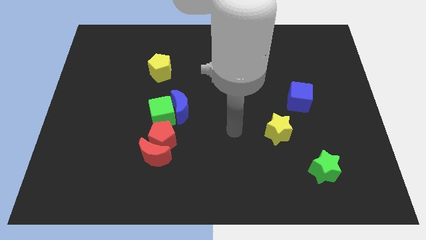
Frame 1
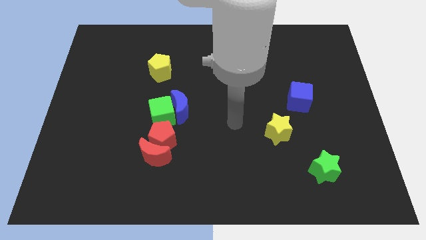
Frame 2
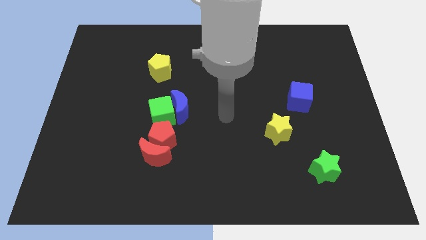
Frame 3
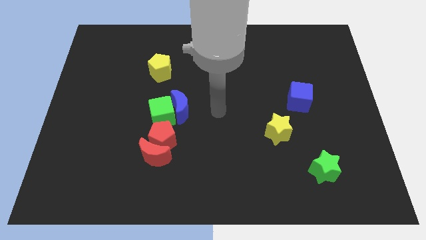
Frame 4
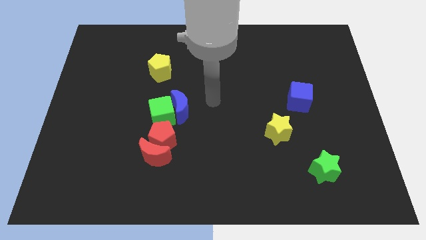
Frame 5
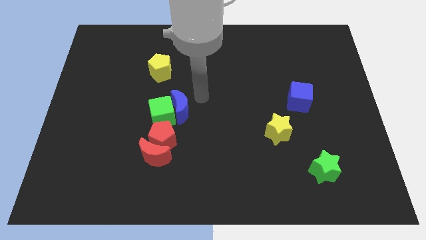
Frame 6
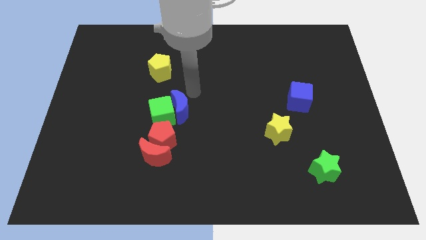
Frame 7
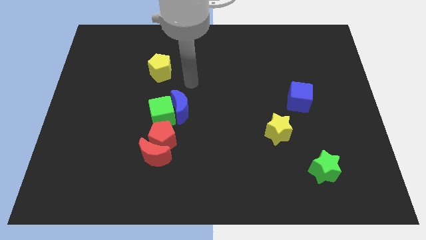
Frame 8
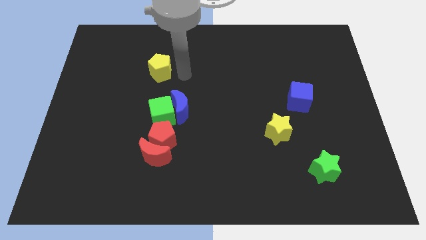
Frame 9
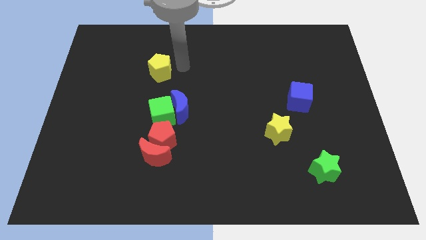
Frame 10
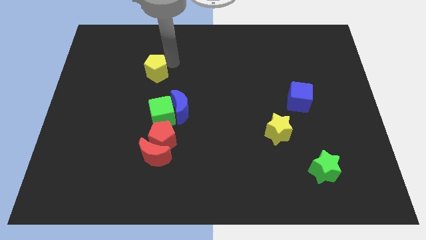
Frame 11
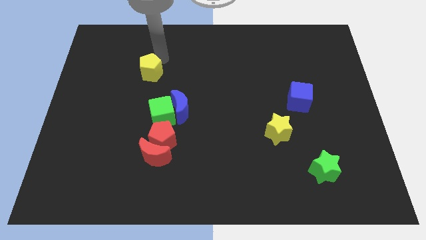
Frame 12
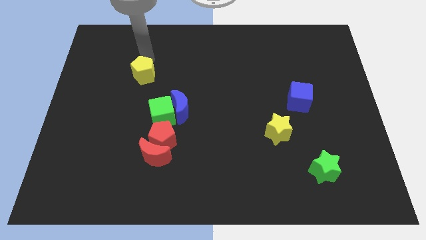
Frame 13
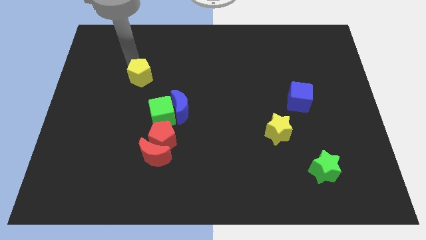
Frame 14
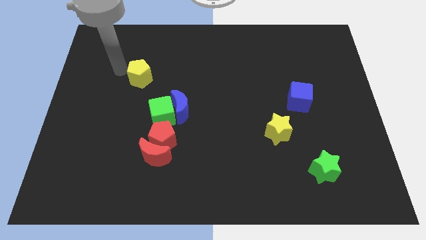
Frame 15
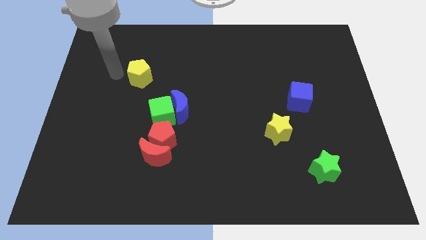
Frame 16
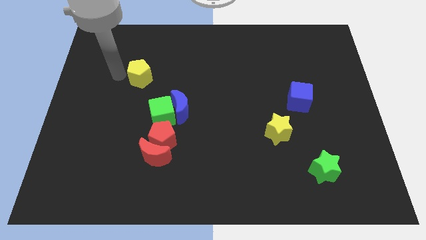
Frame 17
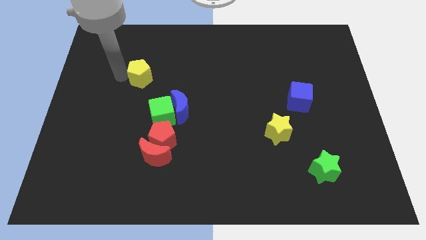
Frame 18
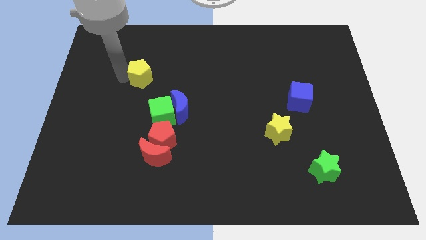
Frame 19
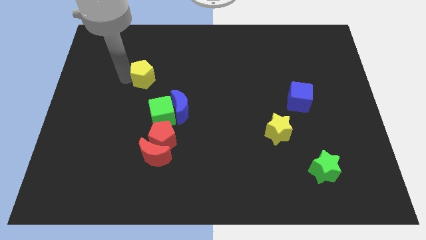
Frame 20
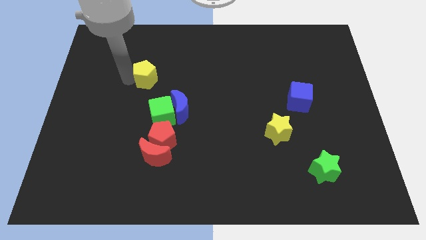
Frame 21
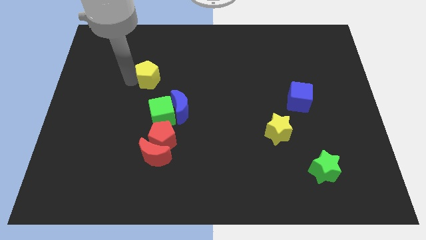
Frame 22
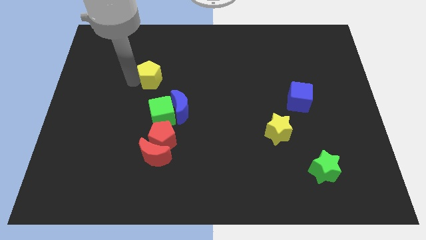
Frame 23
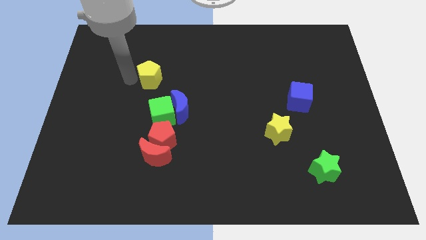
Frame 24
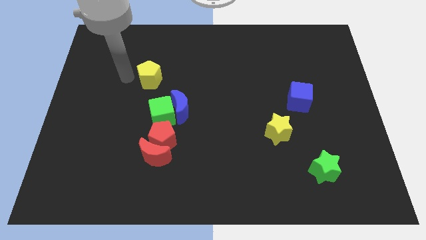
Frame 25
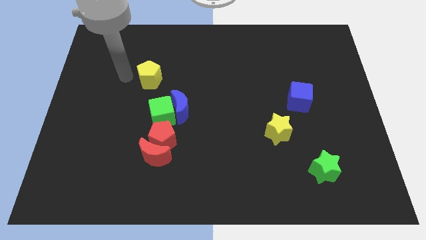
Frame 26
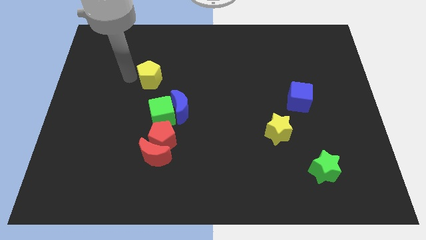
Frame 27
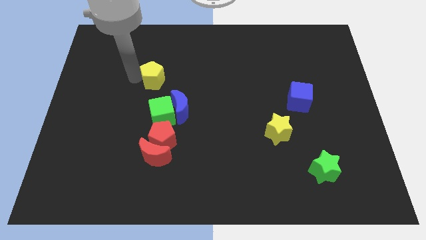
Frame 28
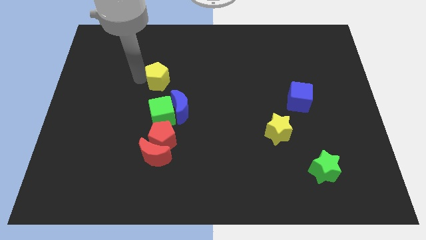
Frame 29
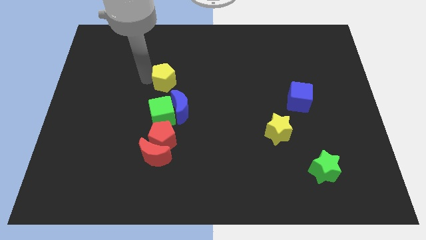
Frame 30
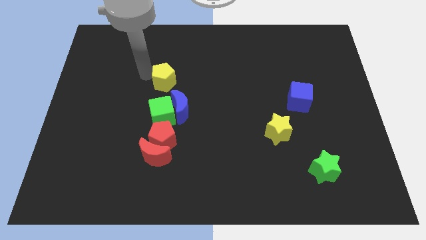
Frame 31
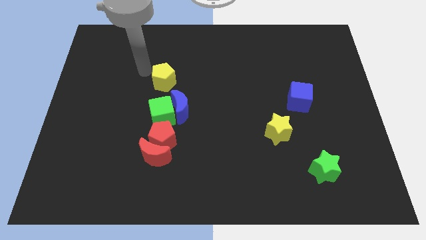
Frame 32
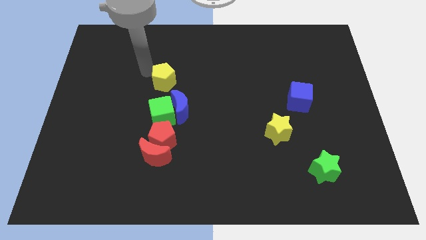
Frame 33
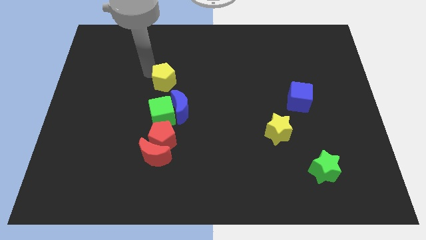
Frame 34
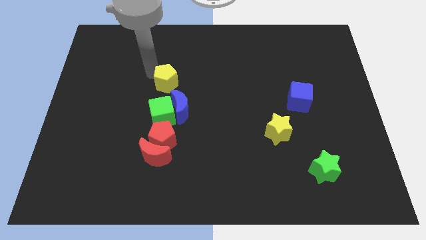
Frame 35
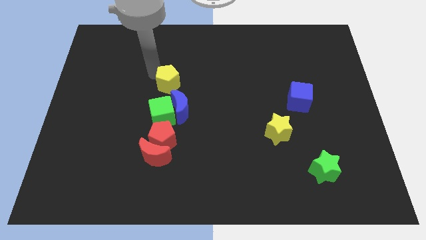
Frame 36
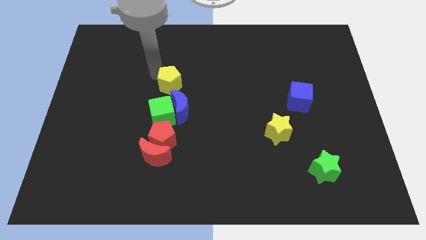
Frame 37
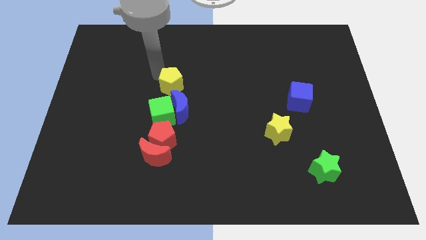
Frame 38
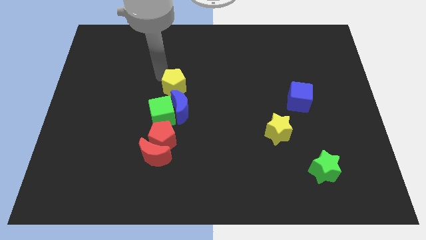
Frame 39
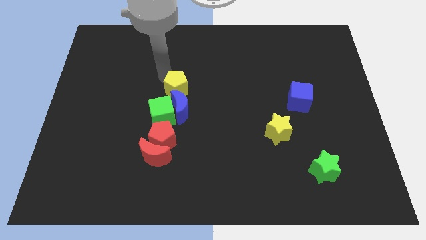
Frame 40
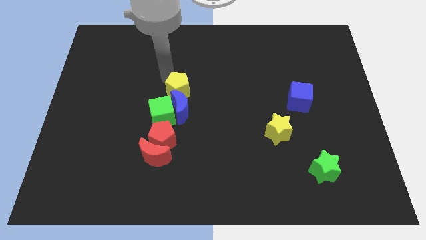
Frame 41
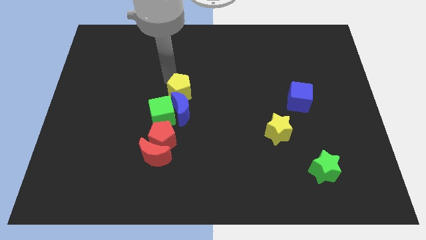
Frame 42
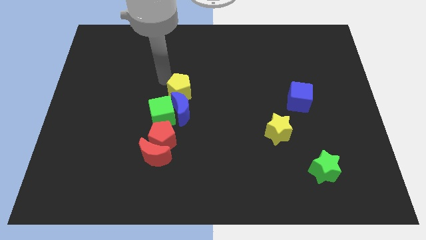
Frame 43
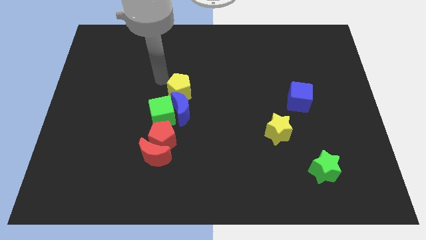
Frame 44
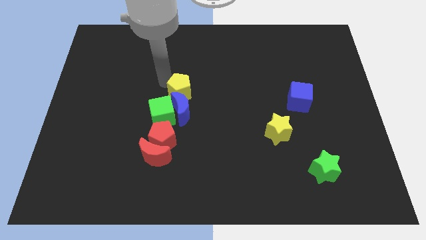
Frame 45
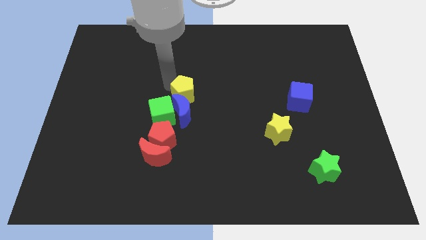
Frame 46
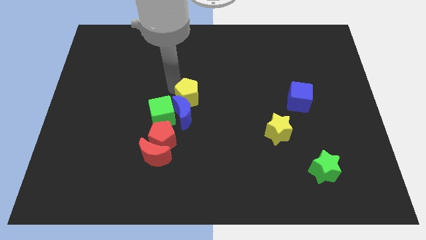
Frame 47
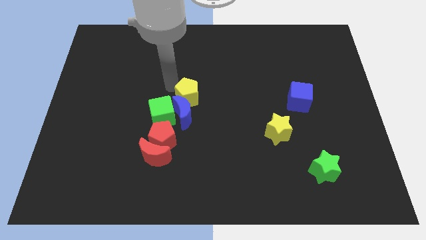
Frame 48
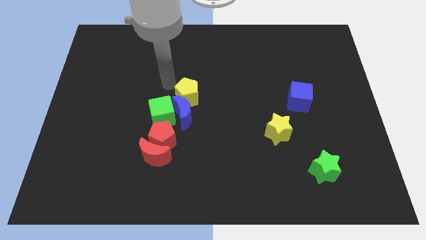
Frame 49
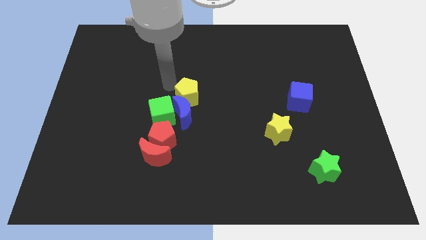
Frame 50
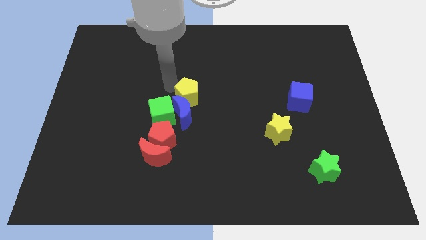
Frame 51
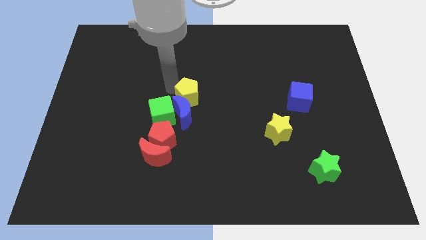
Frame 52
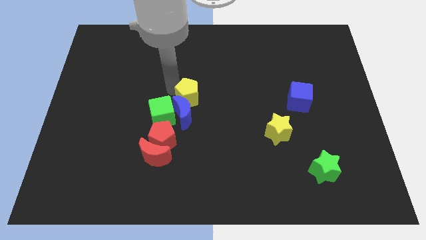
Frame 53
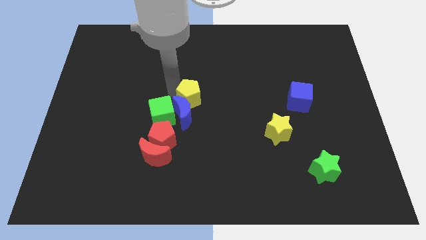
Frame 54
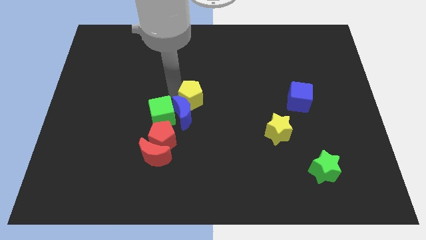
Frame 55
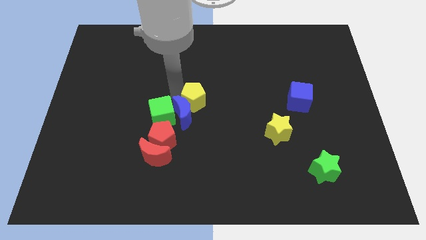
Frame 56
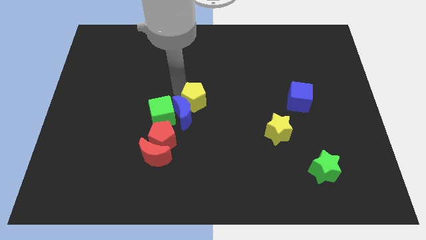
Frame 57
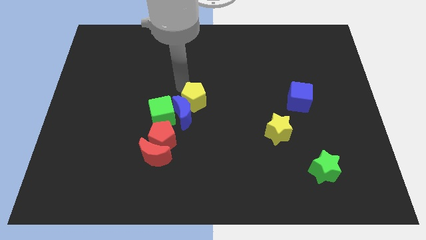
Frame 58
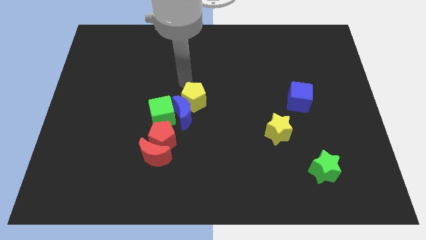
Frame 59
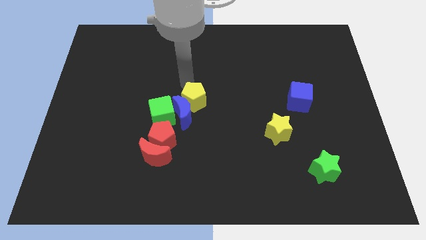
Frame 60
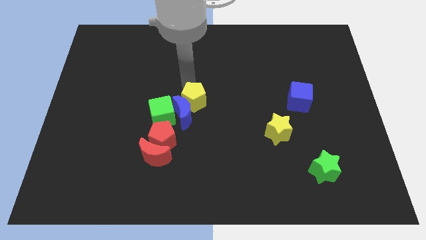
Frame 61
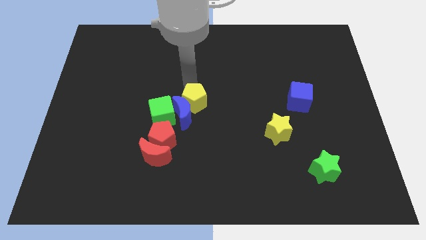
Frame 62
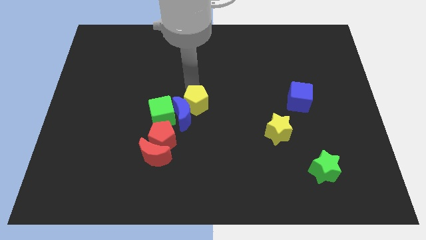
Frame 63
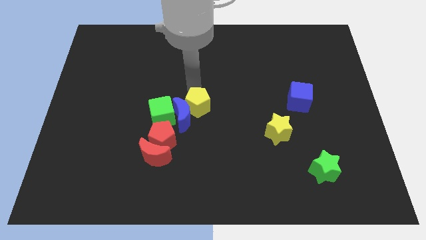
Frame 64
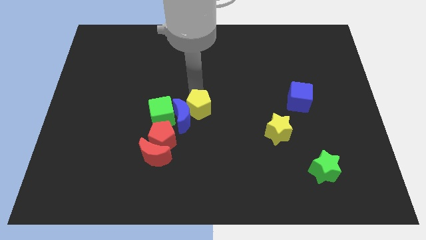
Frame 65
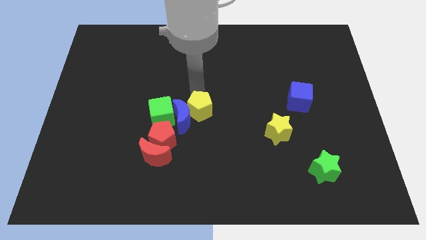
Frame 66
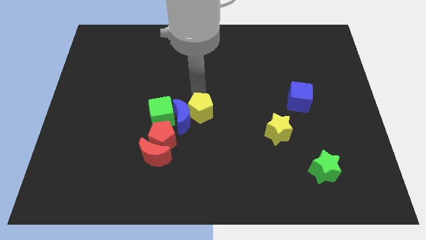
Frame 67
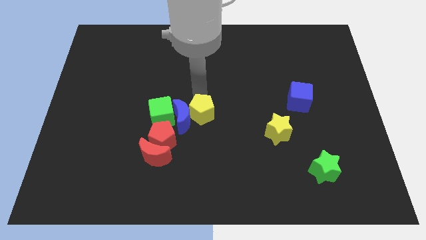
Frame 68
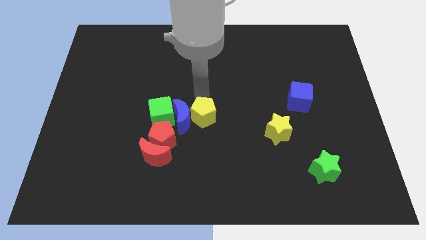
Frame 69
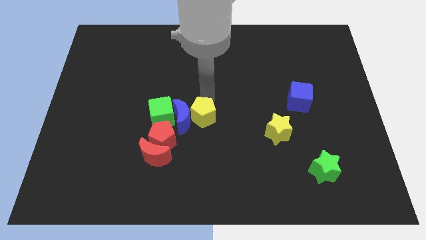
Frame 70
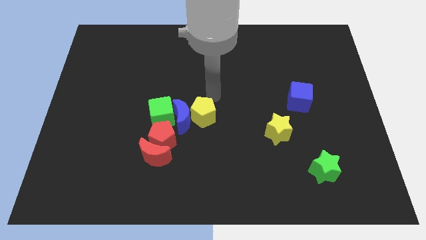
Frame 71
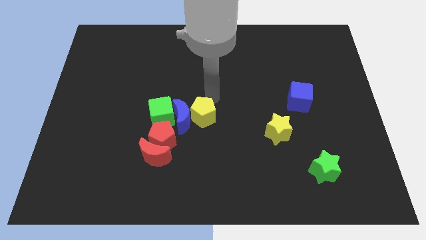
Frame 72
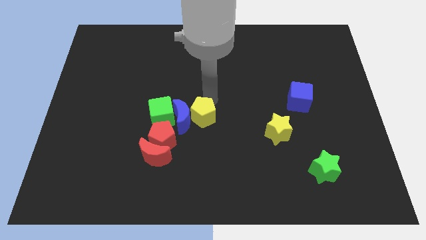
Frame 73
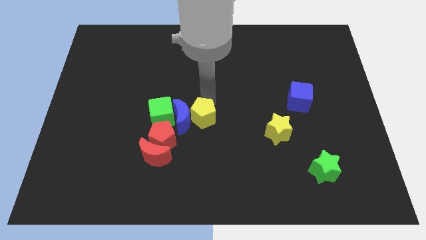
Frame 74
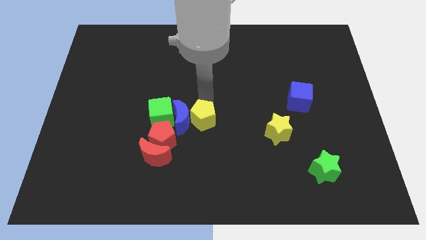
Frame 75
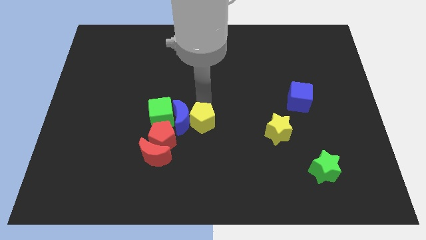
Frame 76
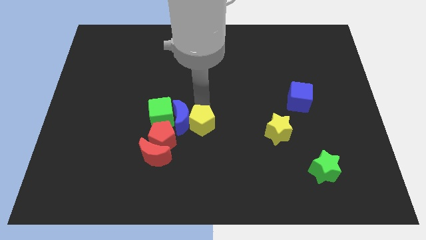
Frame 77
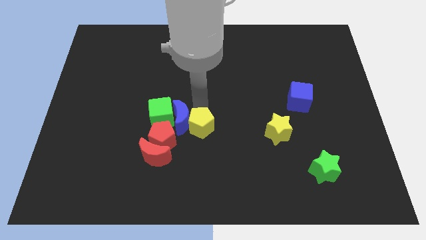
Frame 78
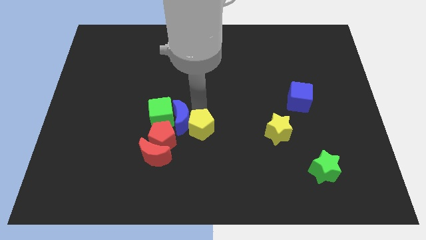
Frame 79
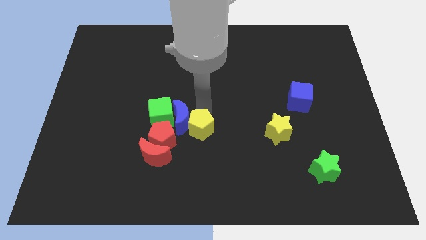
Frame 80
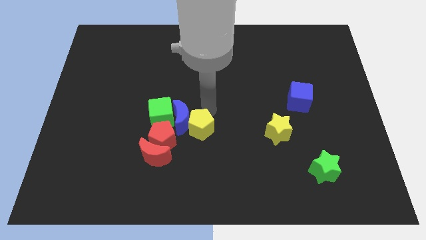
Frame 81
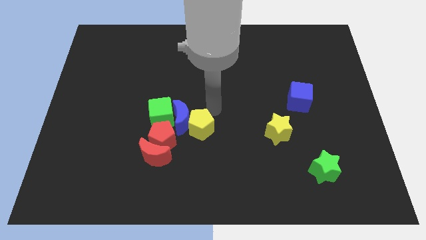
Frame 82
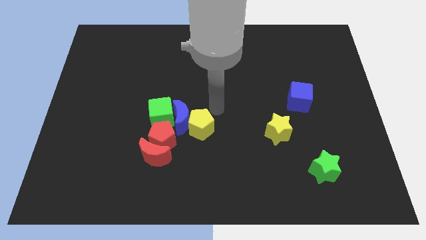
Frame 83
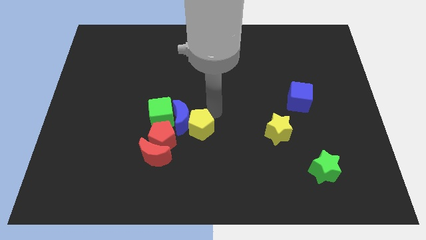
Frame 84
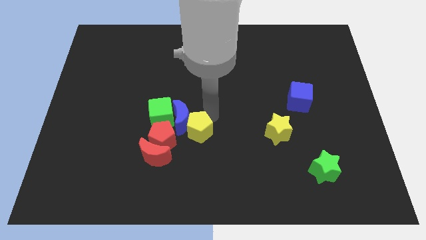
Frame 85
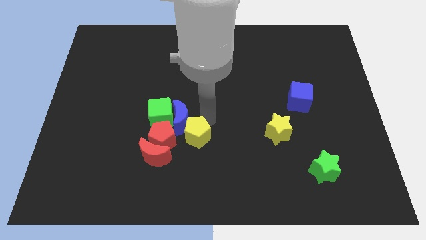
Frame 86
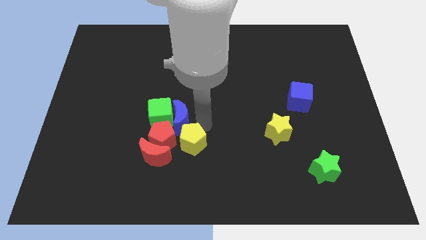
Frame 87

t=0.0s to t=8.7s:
slide the yellow pentagon to the bottom right of the red pentagon
